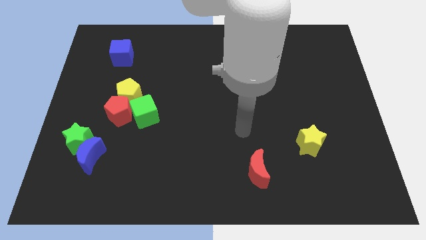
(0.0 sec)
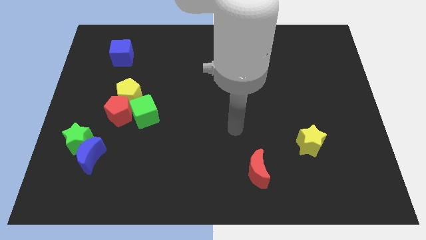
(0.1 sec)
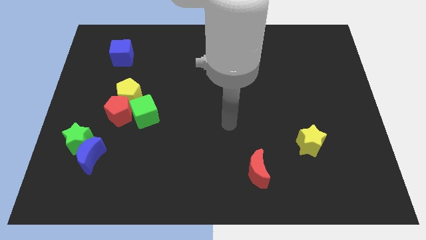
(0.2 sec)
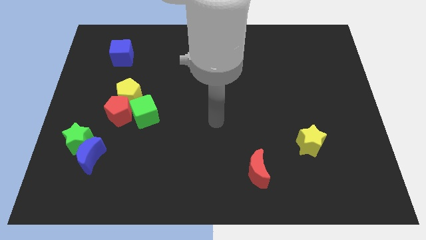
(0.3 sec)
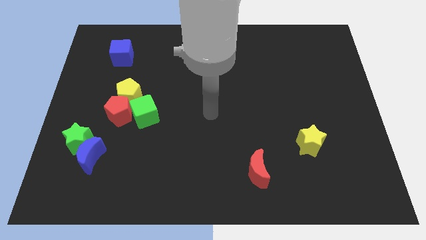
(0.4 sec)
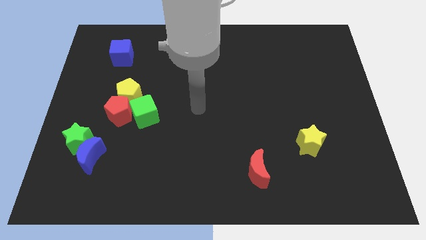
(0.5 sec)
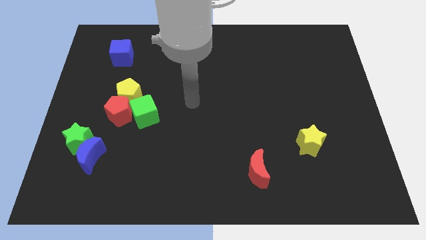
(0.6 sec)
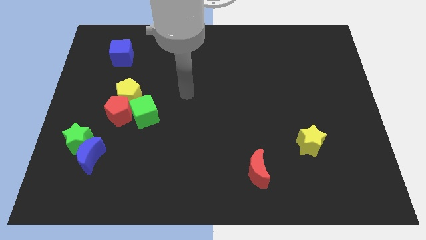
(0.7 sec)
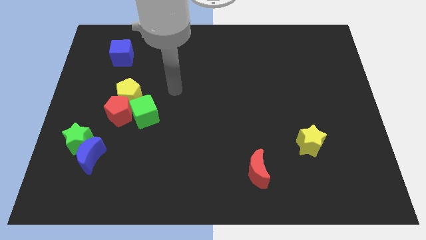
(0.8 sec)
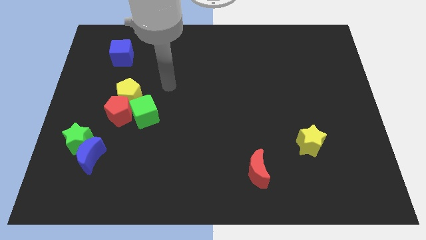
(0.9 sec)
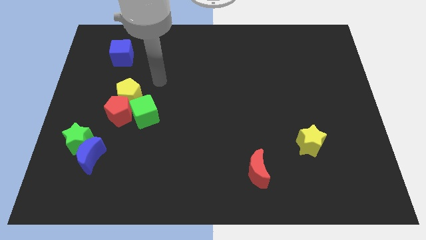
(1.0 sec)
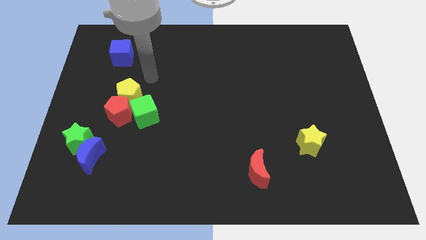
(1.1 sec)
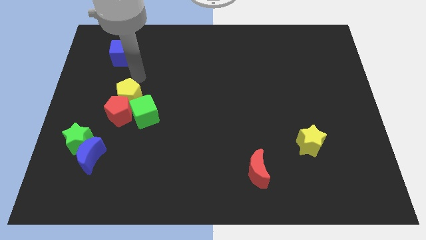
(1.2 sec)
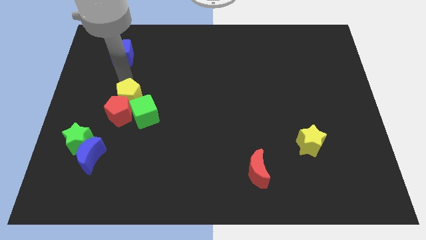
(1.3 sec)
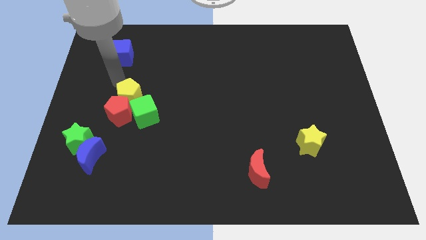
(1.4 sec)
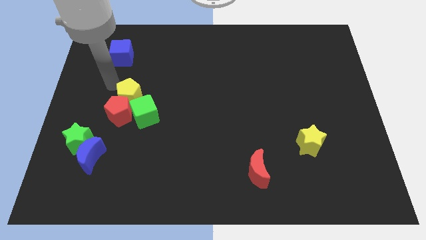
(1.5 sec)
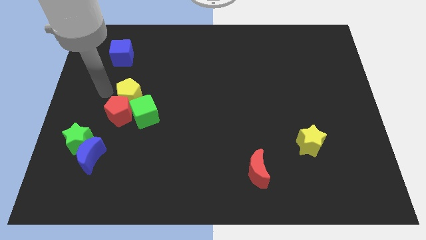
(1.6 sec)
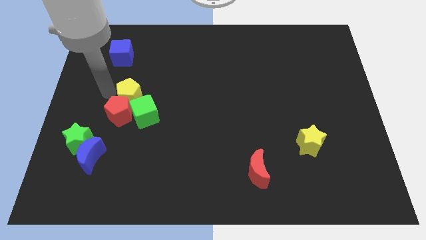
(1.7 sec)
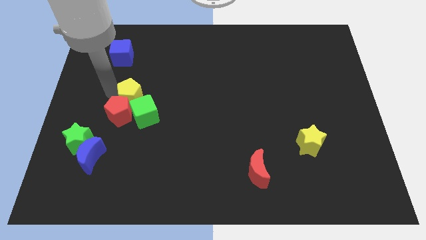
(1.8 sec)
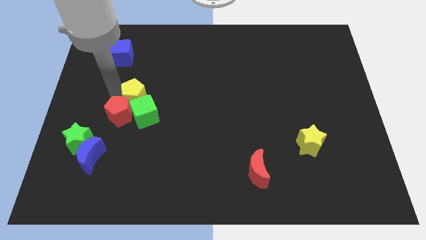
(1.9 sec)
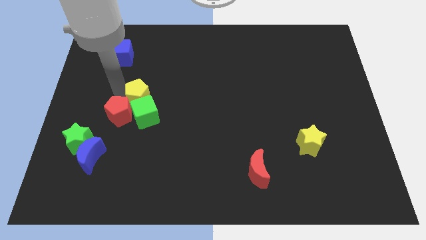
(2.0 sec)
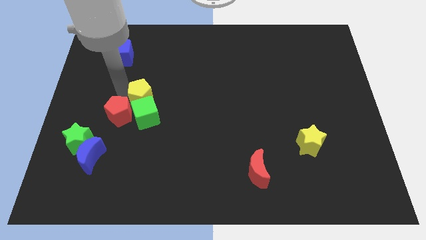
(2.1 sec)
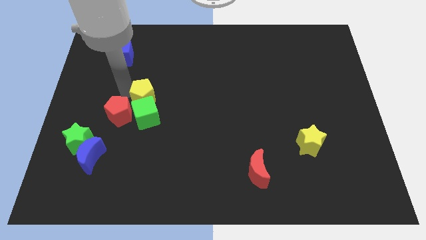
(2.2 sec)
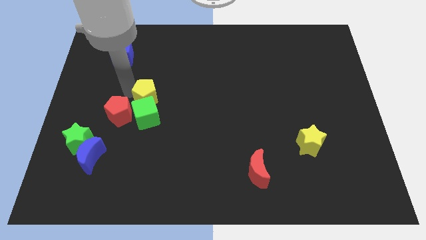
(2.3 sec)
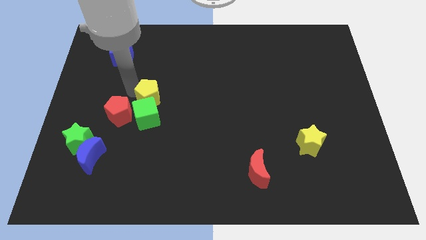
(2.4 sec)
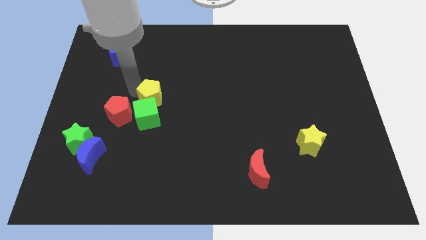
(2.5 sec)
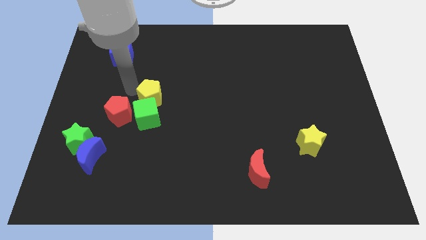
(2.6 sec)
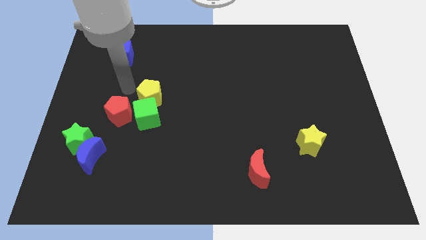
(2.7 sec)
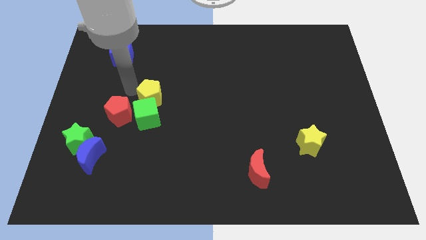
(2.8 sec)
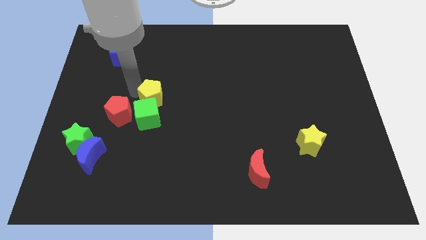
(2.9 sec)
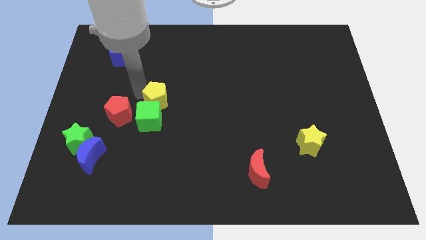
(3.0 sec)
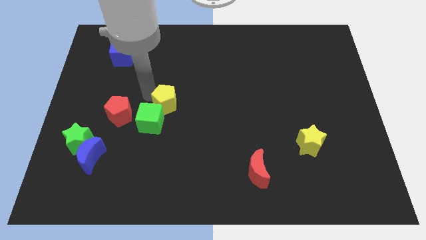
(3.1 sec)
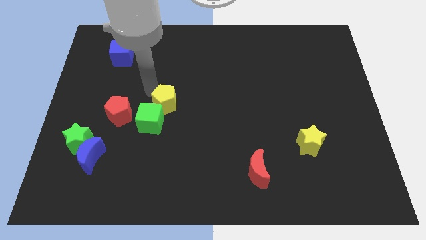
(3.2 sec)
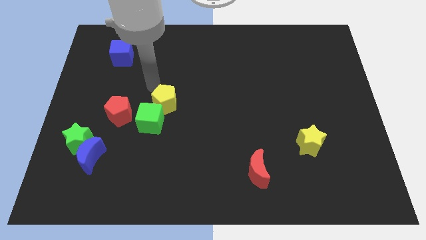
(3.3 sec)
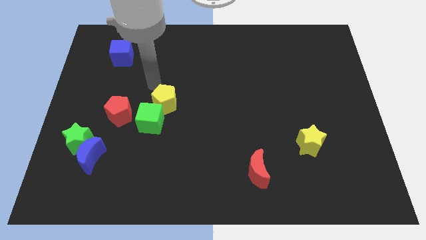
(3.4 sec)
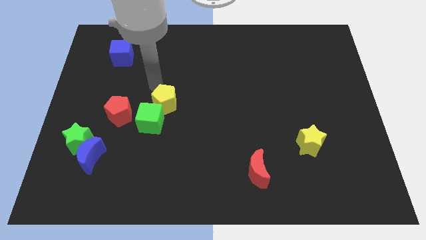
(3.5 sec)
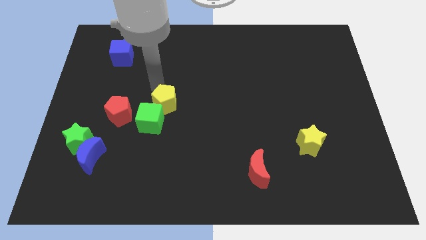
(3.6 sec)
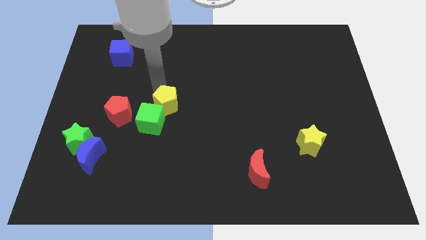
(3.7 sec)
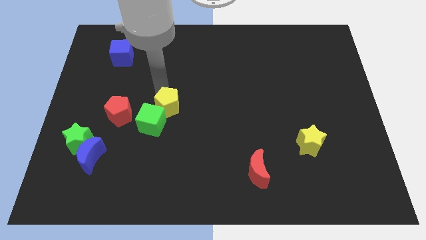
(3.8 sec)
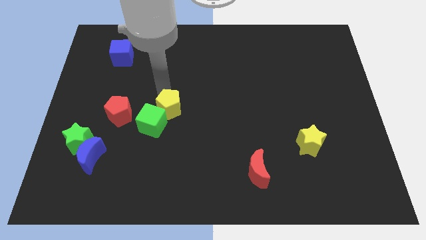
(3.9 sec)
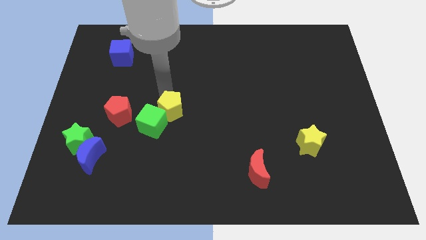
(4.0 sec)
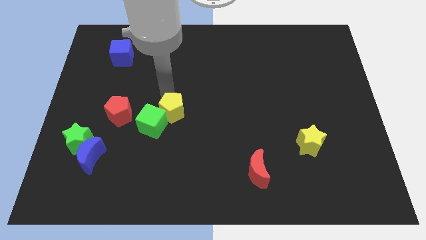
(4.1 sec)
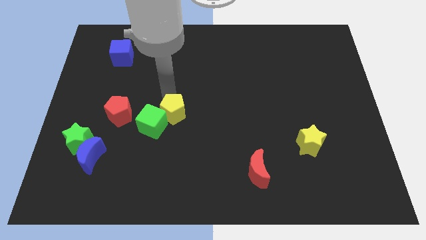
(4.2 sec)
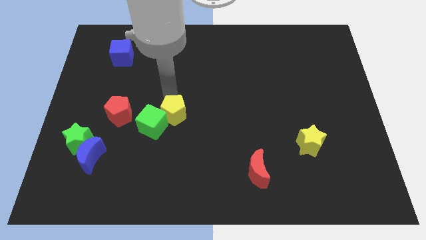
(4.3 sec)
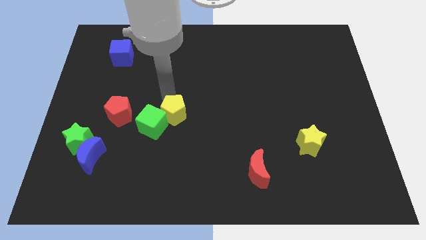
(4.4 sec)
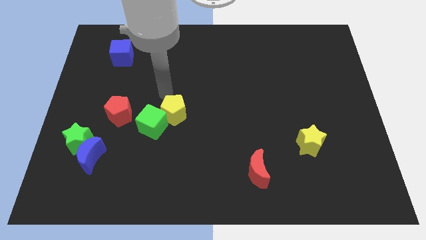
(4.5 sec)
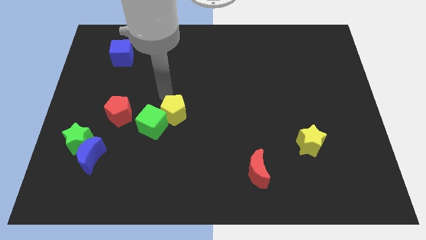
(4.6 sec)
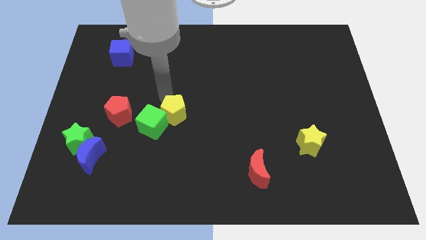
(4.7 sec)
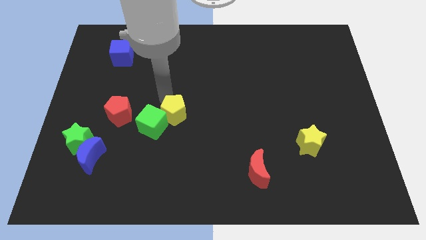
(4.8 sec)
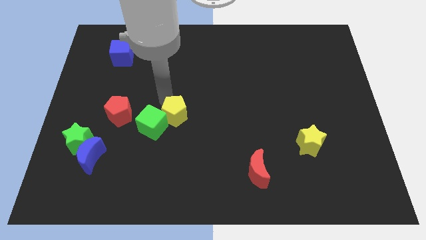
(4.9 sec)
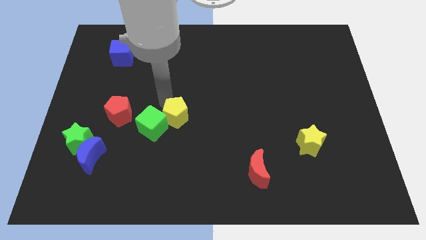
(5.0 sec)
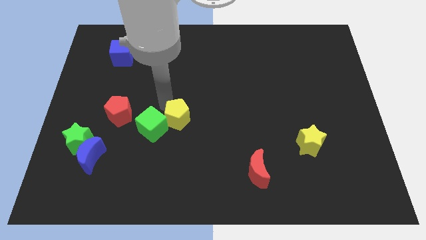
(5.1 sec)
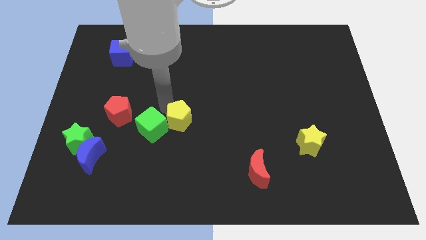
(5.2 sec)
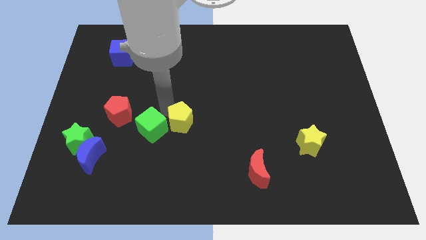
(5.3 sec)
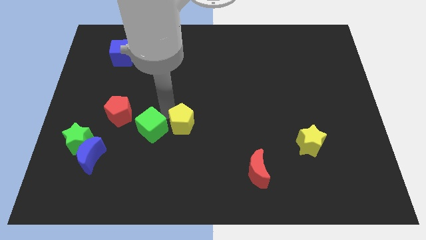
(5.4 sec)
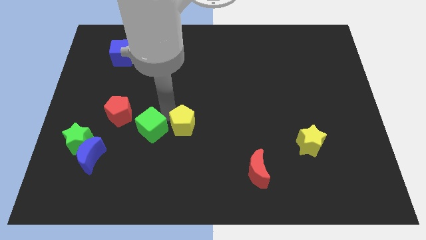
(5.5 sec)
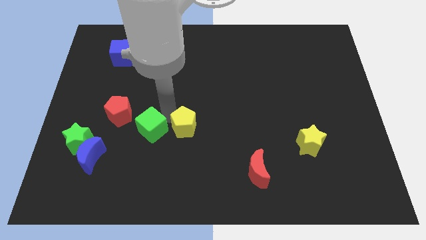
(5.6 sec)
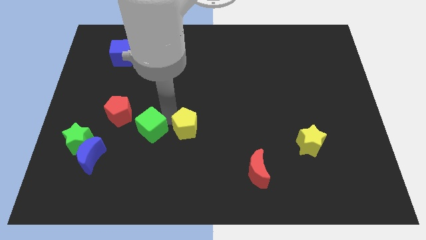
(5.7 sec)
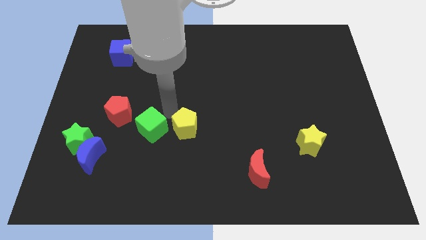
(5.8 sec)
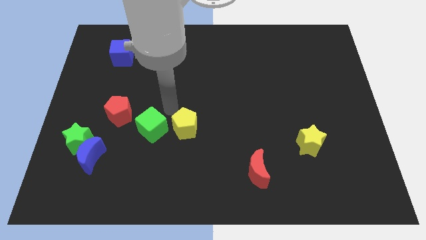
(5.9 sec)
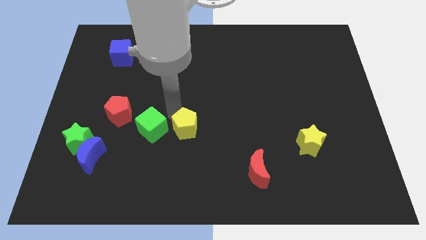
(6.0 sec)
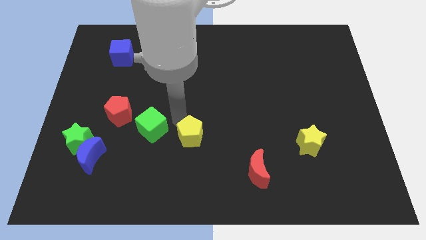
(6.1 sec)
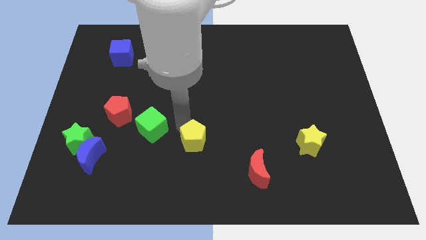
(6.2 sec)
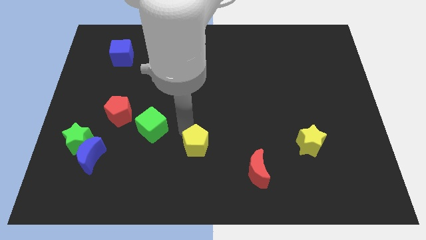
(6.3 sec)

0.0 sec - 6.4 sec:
push the yellow pentagon downwards and then to the right

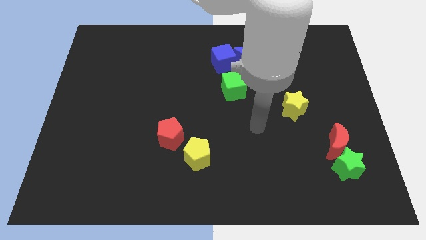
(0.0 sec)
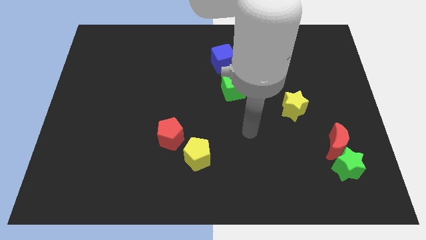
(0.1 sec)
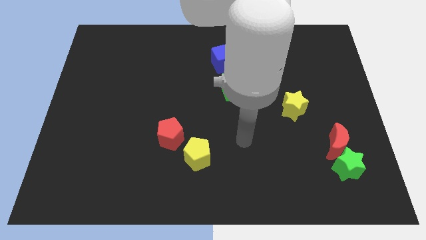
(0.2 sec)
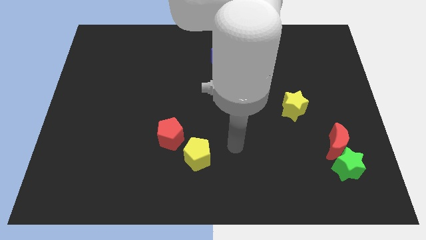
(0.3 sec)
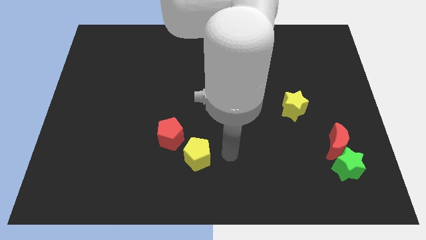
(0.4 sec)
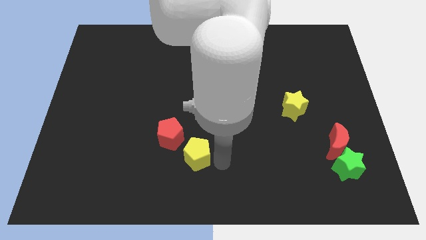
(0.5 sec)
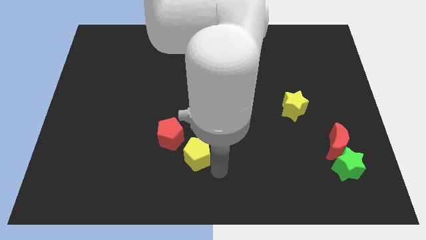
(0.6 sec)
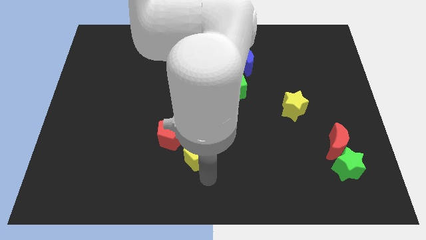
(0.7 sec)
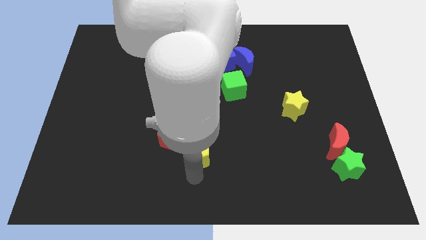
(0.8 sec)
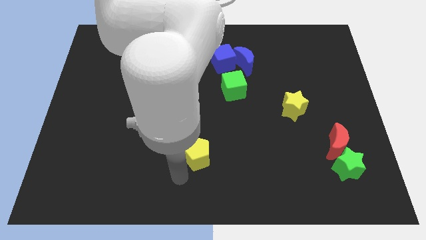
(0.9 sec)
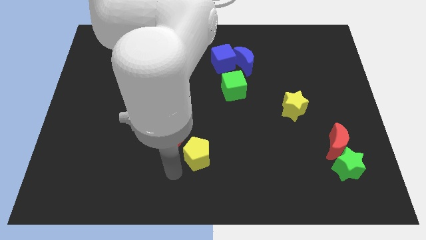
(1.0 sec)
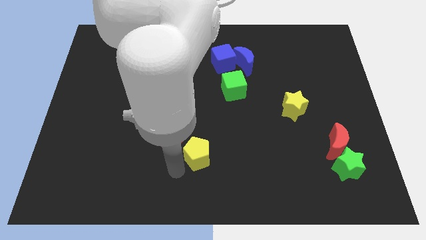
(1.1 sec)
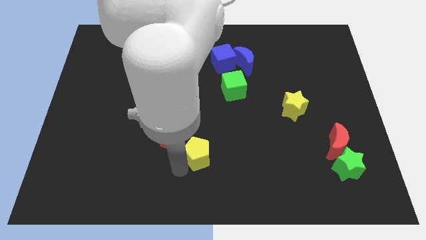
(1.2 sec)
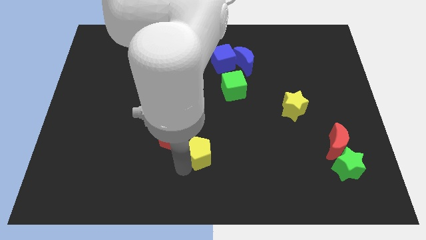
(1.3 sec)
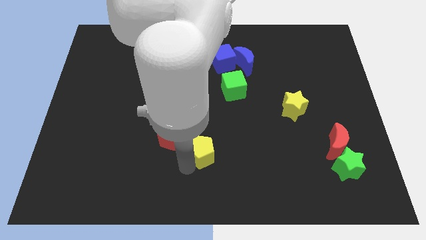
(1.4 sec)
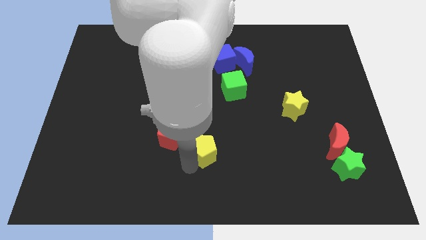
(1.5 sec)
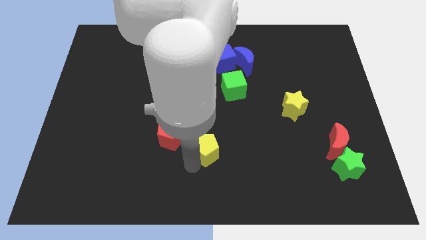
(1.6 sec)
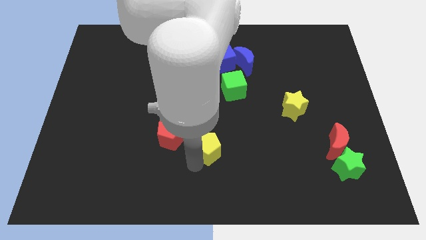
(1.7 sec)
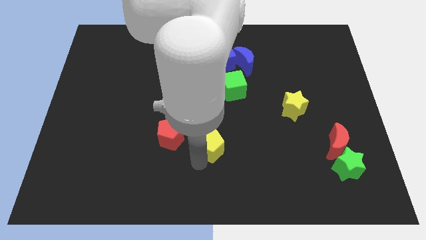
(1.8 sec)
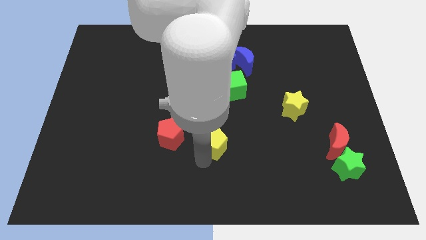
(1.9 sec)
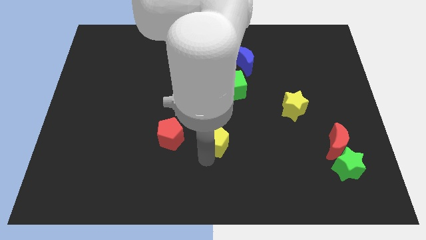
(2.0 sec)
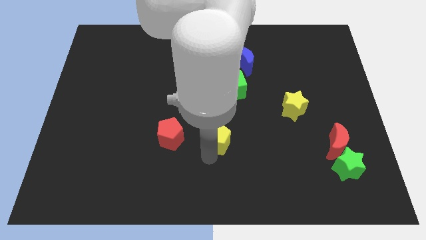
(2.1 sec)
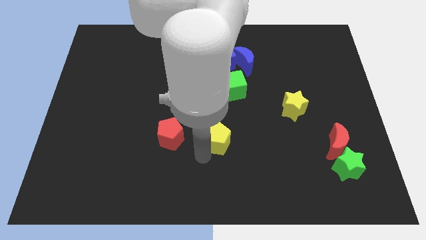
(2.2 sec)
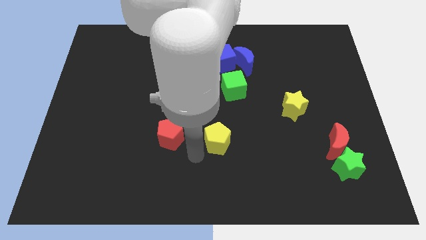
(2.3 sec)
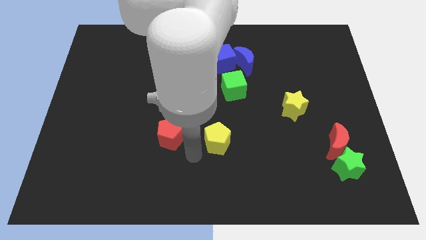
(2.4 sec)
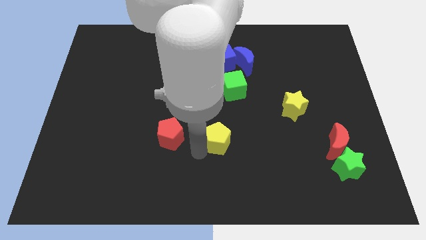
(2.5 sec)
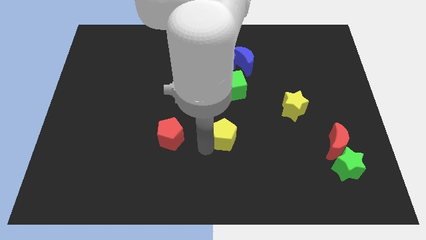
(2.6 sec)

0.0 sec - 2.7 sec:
slightly slide the yellow pentagon diagonally upwards and right
